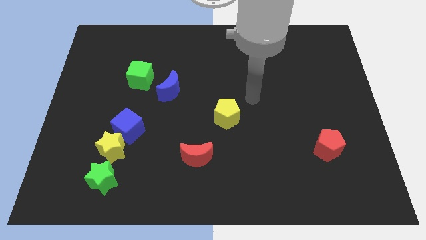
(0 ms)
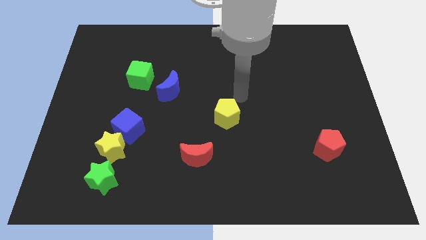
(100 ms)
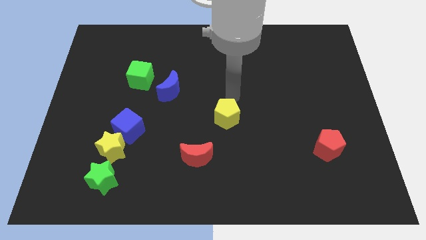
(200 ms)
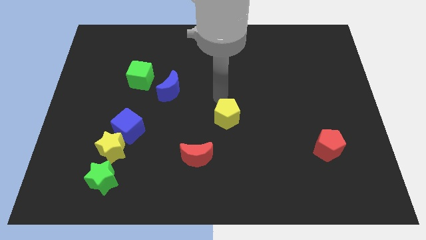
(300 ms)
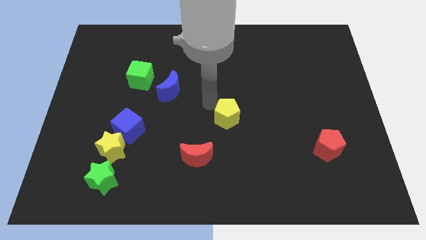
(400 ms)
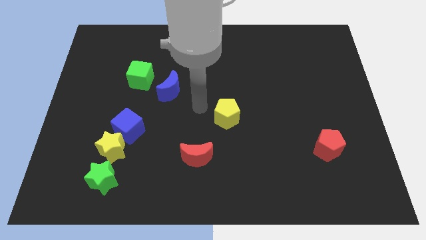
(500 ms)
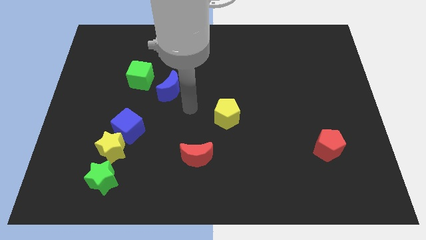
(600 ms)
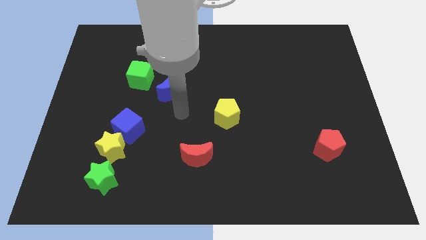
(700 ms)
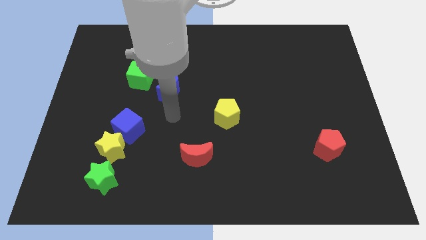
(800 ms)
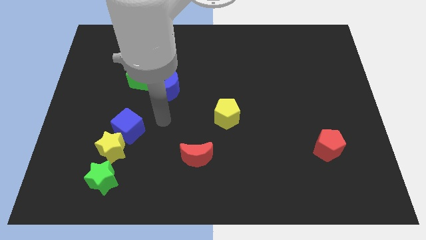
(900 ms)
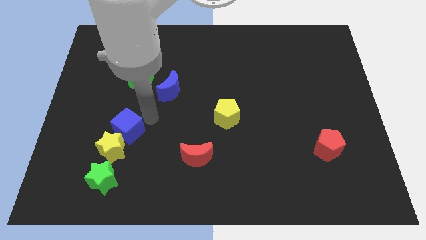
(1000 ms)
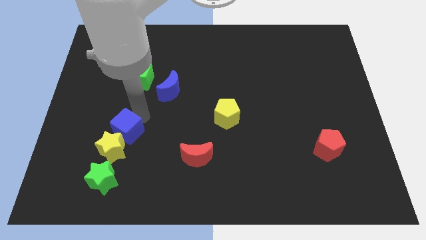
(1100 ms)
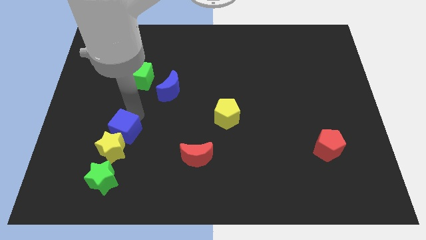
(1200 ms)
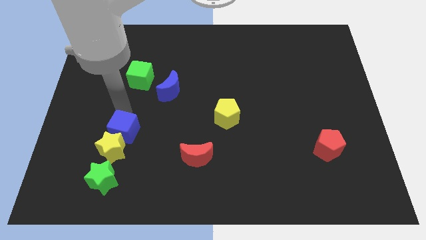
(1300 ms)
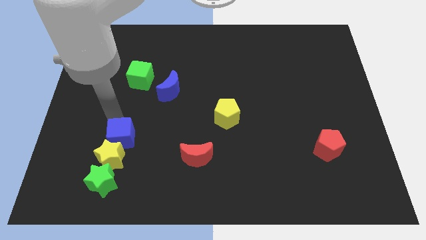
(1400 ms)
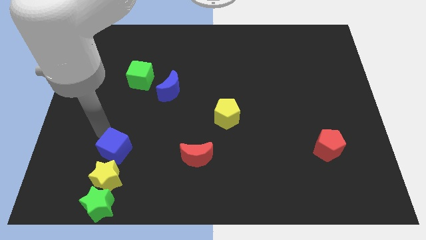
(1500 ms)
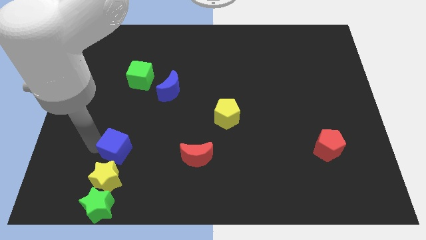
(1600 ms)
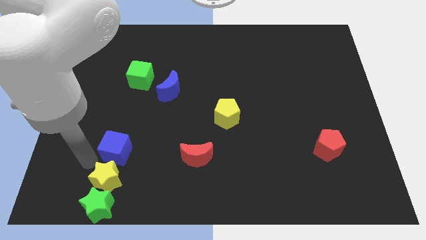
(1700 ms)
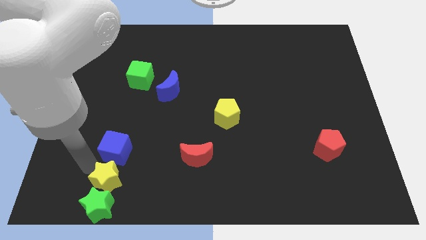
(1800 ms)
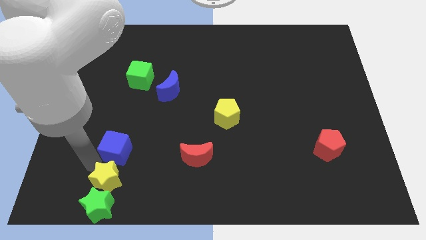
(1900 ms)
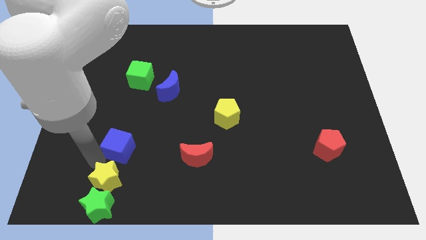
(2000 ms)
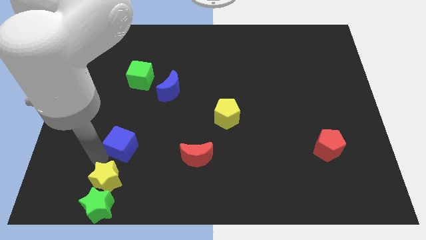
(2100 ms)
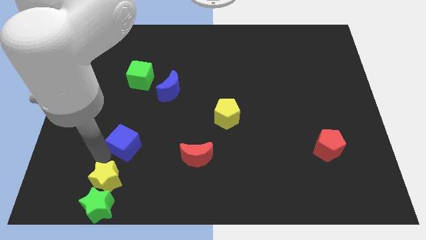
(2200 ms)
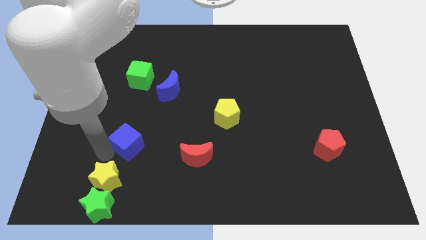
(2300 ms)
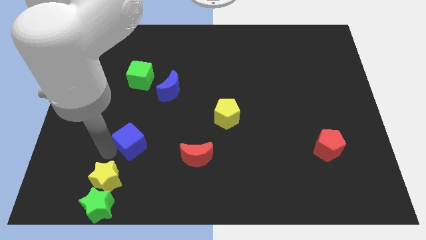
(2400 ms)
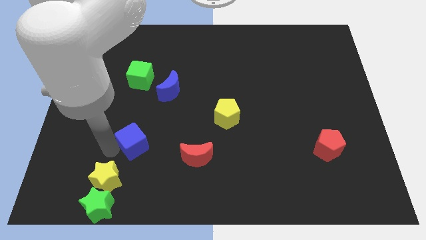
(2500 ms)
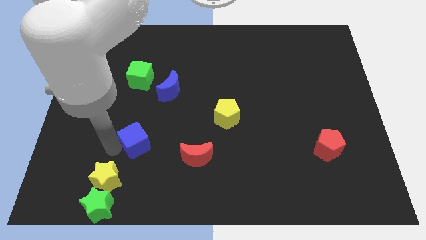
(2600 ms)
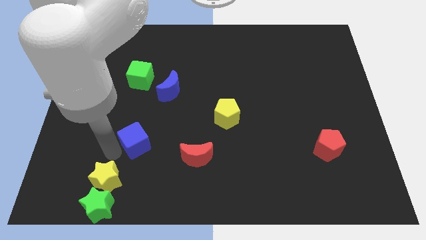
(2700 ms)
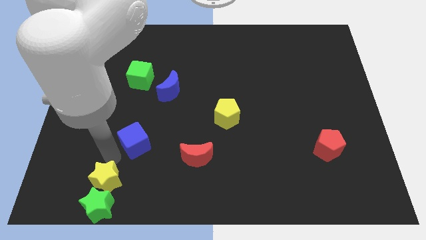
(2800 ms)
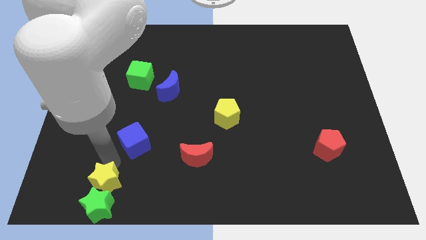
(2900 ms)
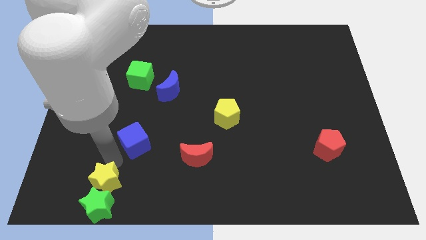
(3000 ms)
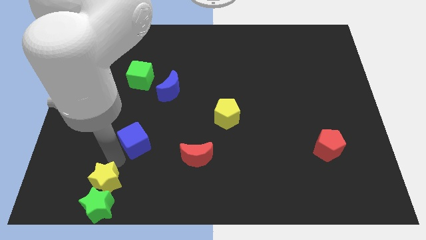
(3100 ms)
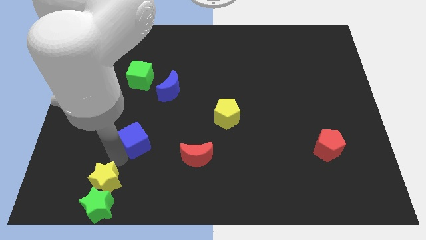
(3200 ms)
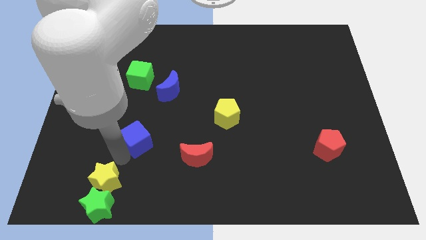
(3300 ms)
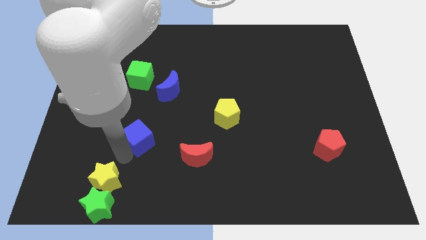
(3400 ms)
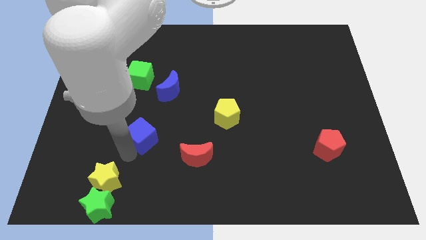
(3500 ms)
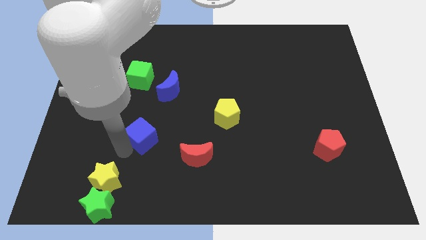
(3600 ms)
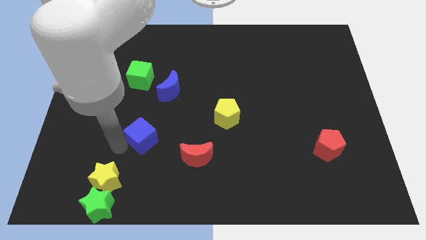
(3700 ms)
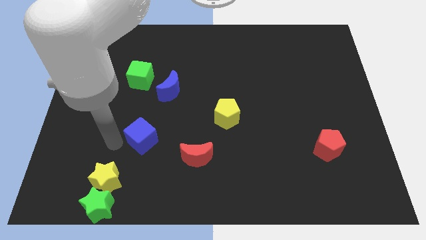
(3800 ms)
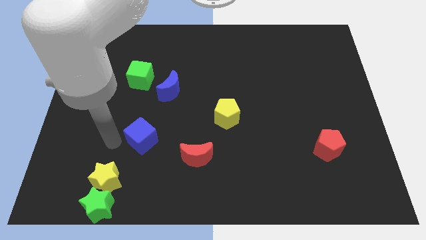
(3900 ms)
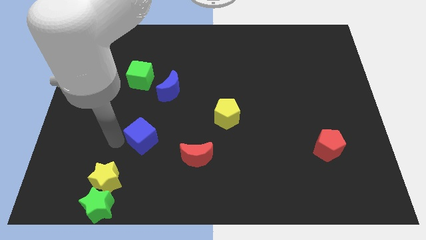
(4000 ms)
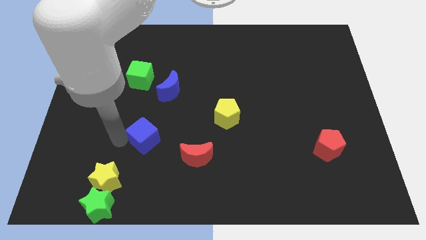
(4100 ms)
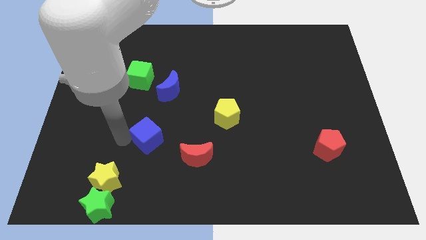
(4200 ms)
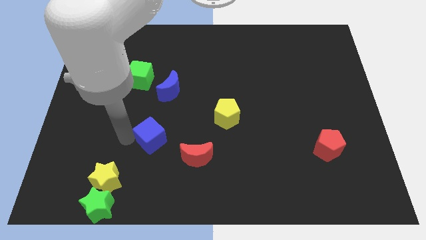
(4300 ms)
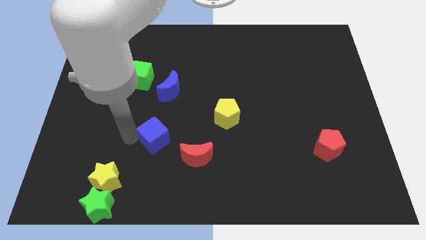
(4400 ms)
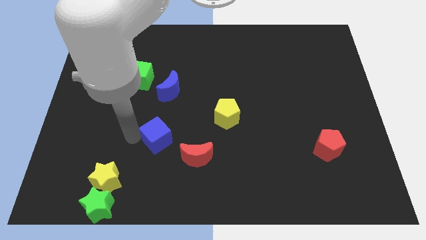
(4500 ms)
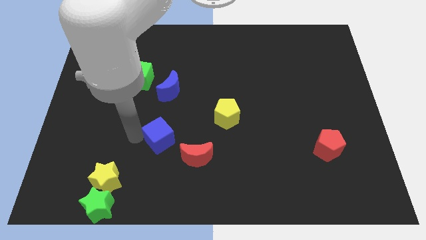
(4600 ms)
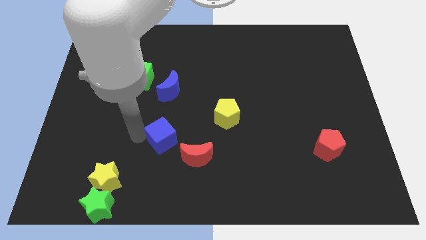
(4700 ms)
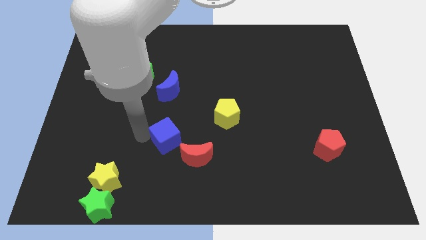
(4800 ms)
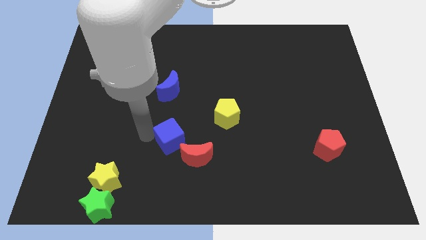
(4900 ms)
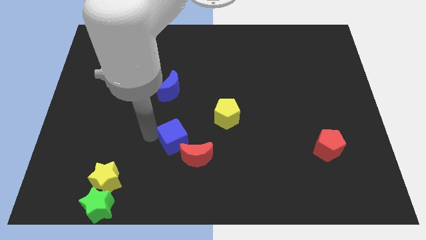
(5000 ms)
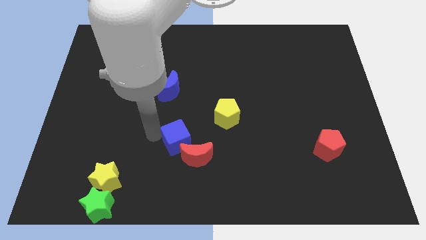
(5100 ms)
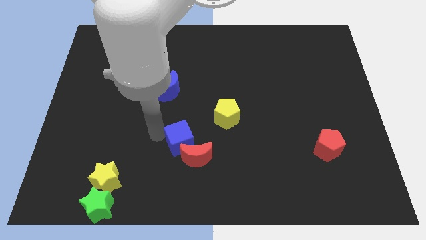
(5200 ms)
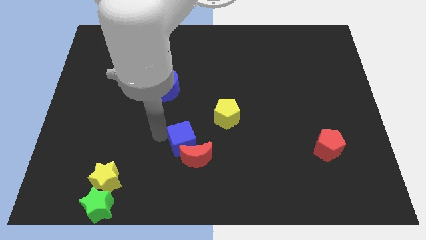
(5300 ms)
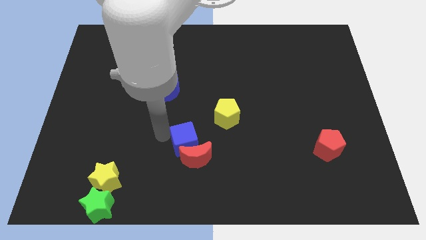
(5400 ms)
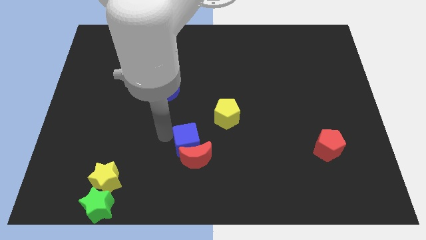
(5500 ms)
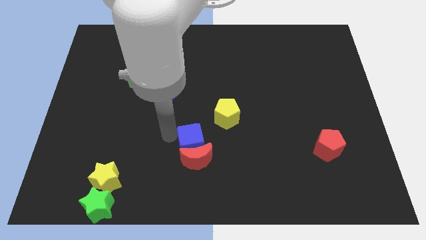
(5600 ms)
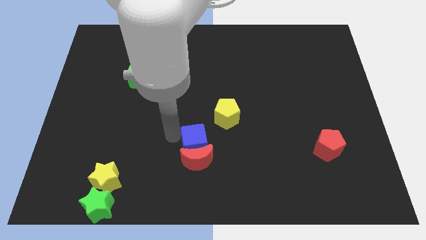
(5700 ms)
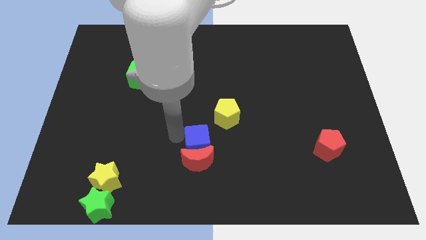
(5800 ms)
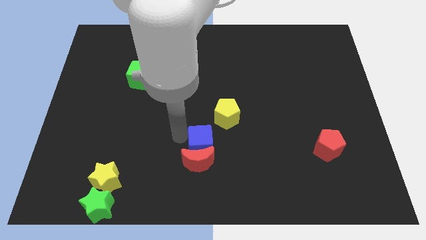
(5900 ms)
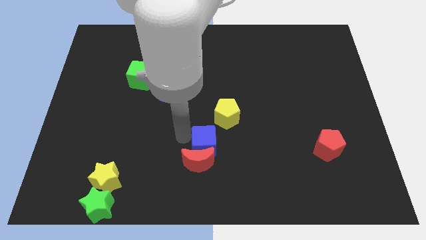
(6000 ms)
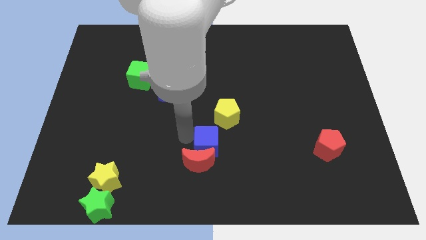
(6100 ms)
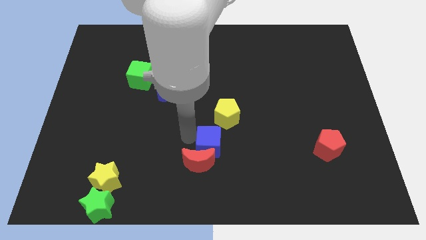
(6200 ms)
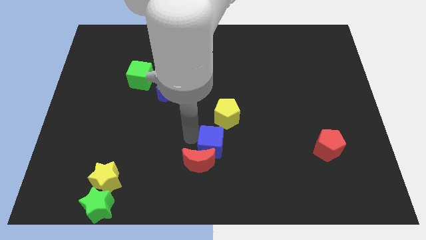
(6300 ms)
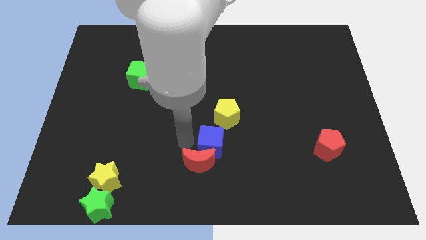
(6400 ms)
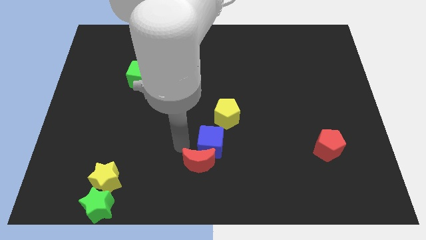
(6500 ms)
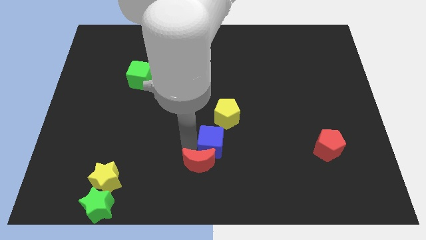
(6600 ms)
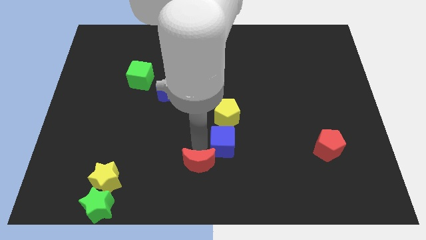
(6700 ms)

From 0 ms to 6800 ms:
push the blue cube right

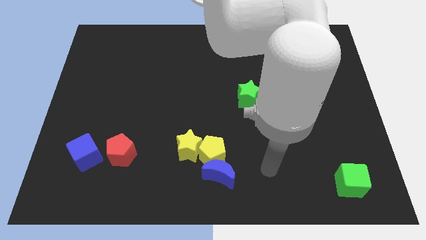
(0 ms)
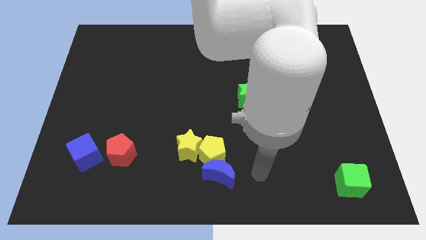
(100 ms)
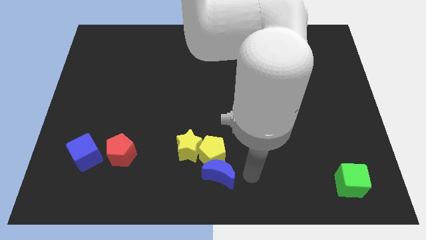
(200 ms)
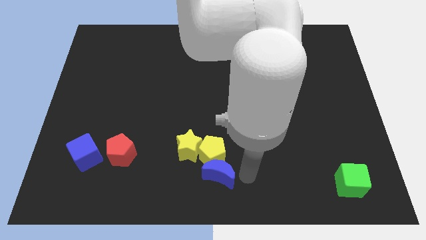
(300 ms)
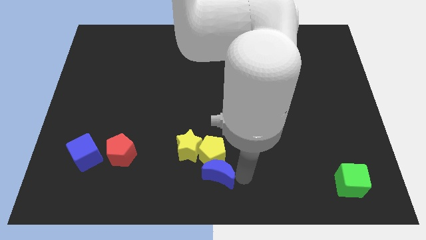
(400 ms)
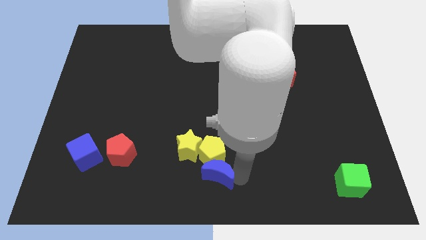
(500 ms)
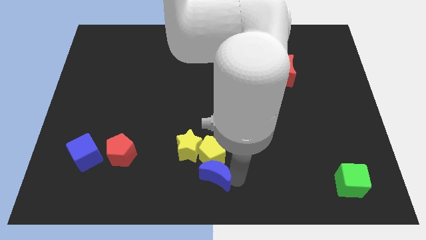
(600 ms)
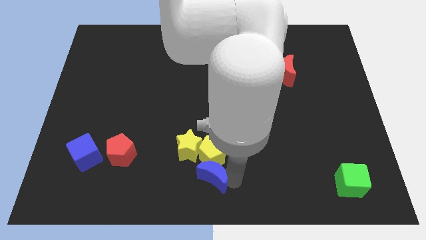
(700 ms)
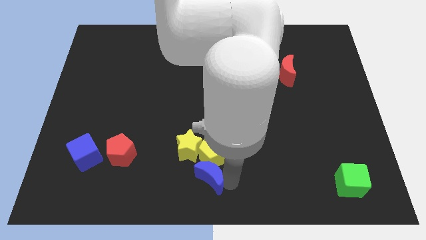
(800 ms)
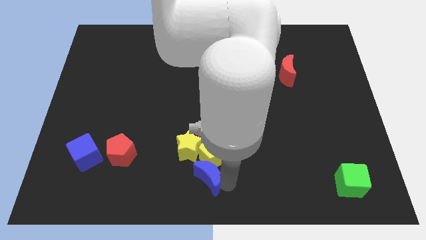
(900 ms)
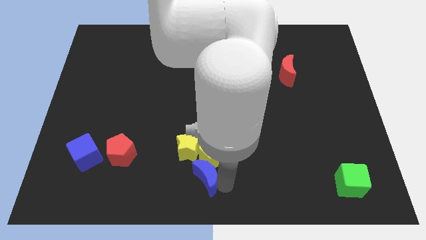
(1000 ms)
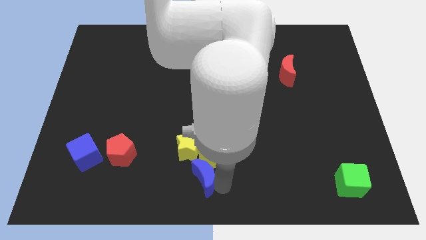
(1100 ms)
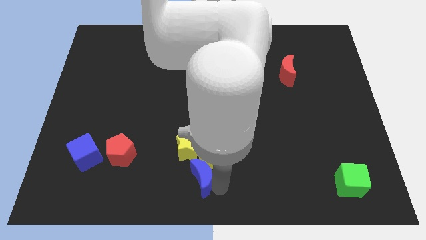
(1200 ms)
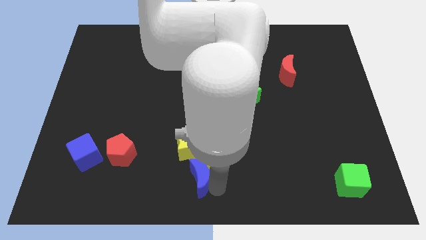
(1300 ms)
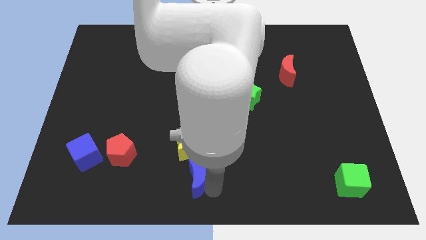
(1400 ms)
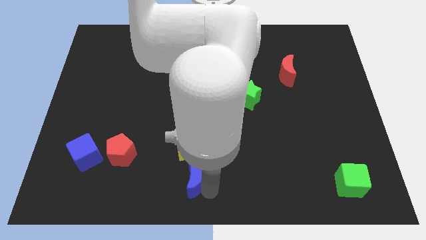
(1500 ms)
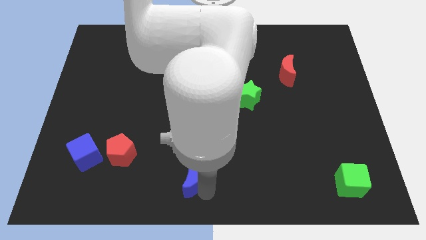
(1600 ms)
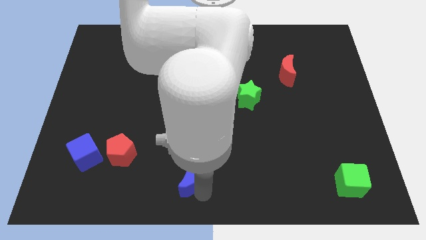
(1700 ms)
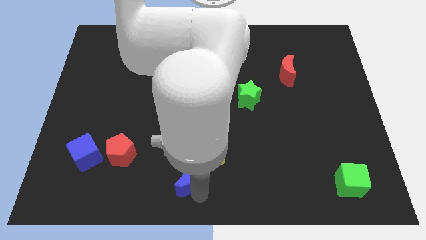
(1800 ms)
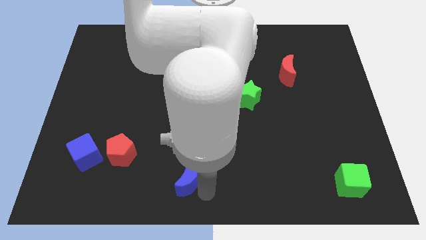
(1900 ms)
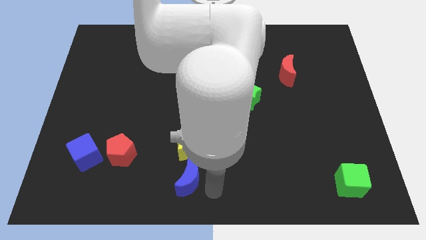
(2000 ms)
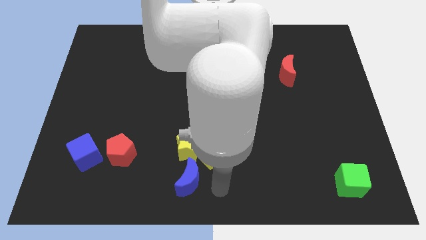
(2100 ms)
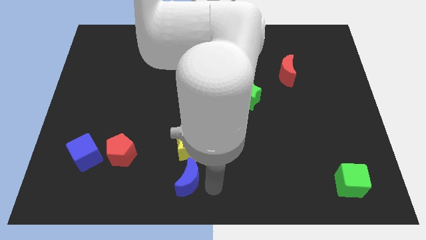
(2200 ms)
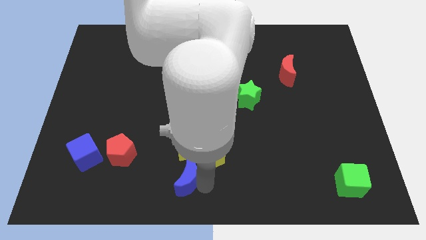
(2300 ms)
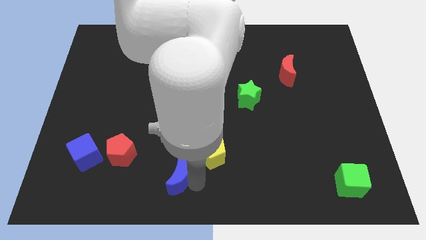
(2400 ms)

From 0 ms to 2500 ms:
slide the blue moon a little to the left
